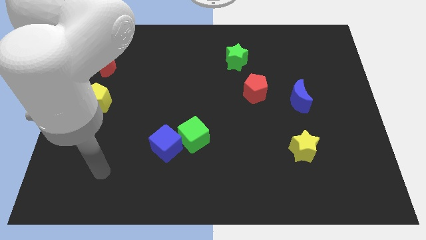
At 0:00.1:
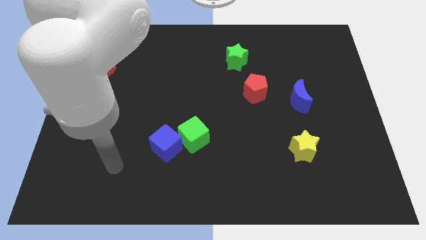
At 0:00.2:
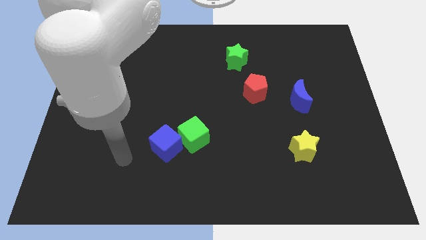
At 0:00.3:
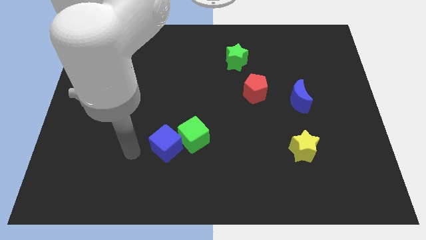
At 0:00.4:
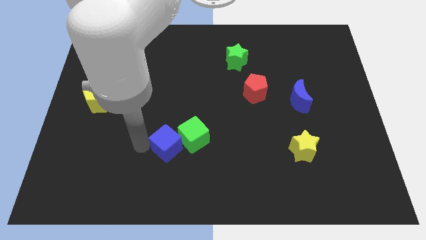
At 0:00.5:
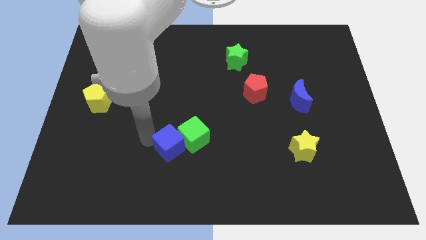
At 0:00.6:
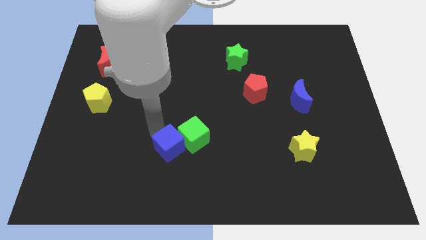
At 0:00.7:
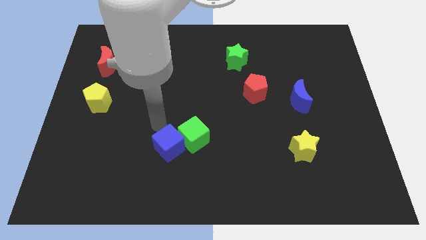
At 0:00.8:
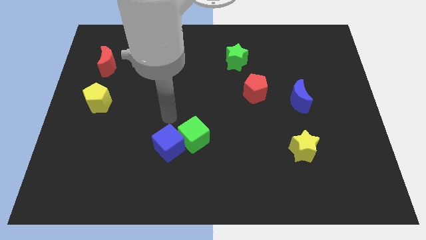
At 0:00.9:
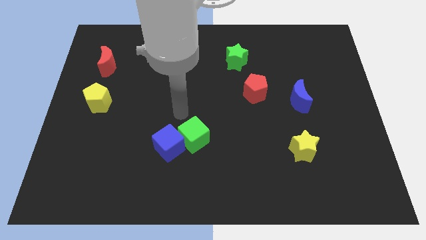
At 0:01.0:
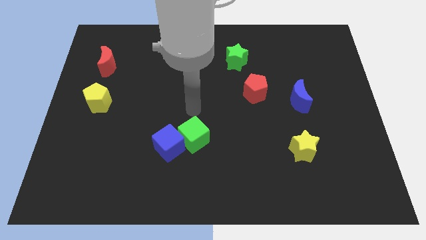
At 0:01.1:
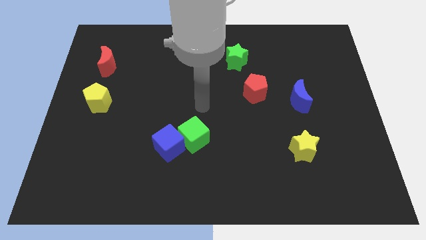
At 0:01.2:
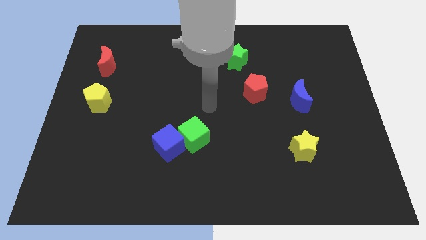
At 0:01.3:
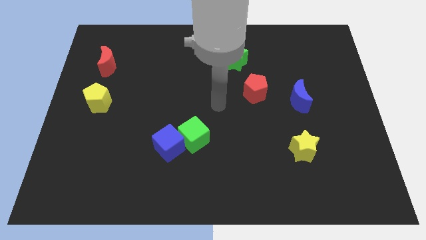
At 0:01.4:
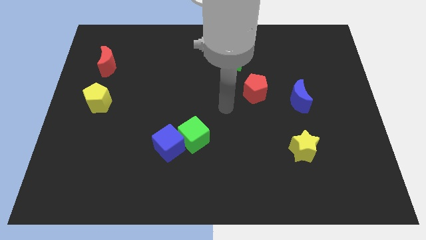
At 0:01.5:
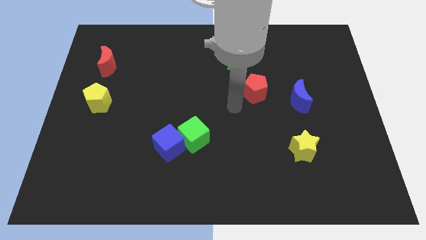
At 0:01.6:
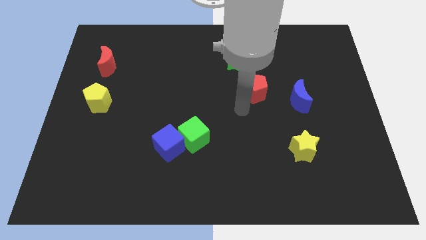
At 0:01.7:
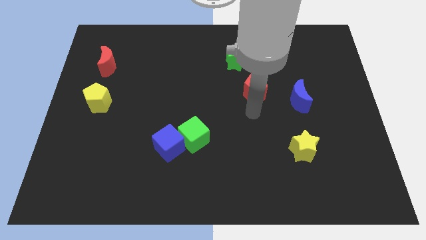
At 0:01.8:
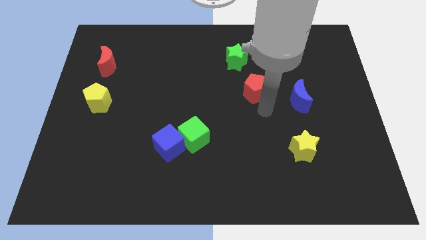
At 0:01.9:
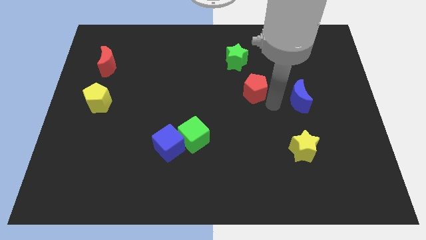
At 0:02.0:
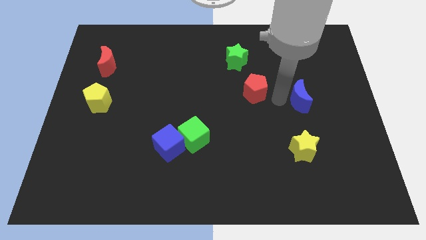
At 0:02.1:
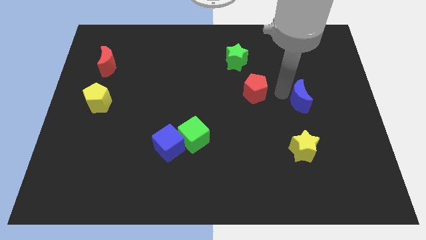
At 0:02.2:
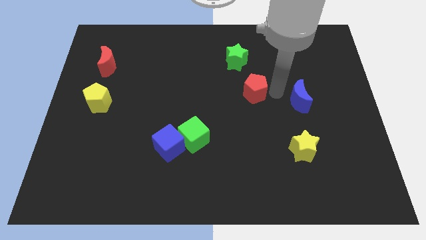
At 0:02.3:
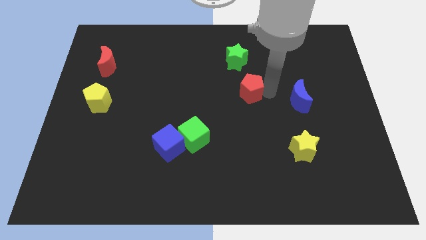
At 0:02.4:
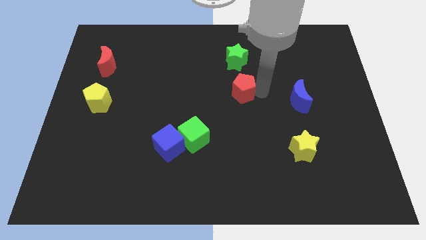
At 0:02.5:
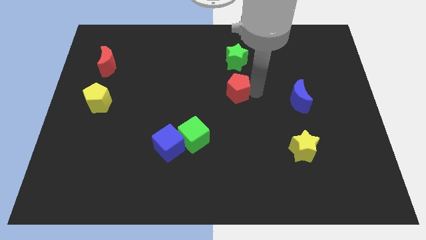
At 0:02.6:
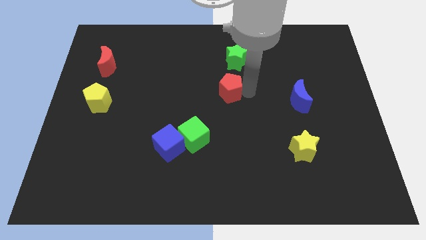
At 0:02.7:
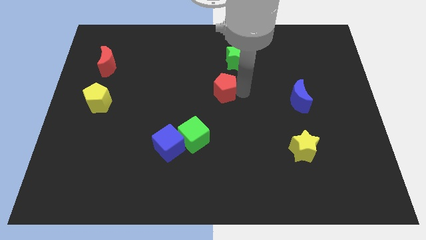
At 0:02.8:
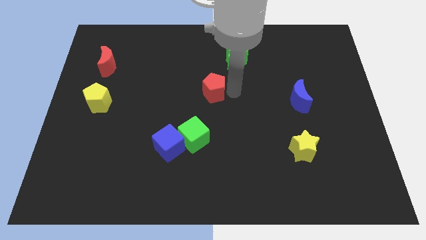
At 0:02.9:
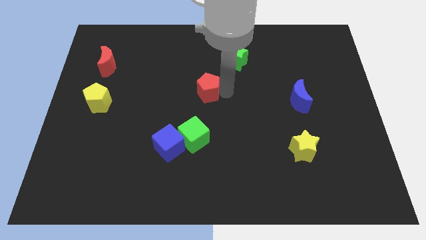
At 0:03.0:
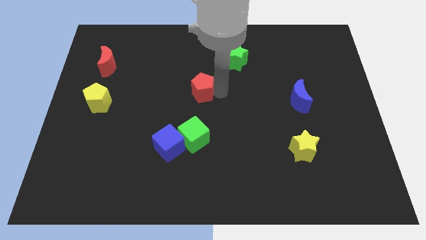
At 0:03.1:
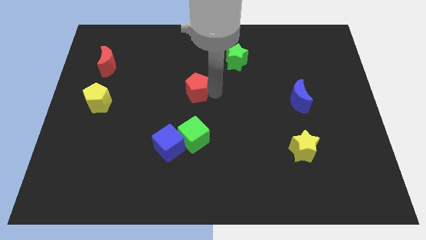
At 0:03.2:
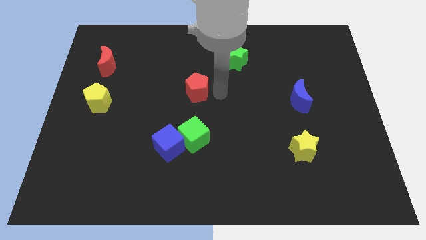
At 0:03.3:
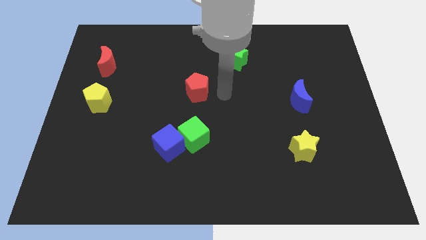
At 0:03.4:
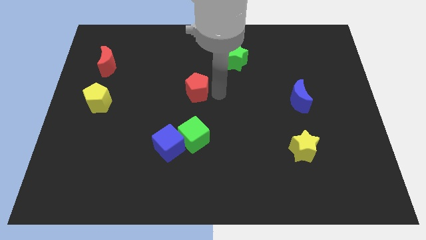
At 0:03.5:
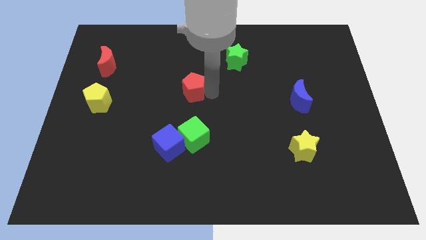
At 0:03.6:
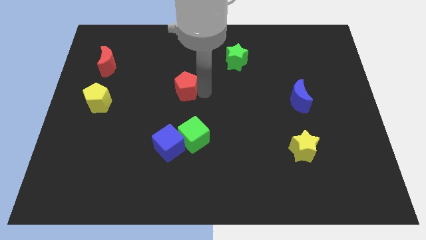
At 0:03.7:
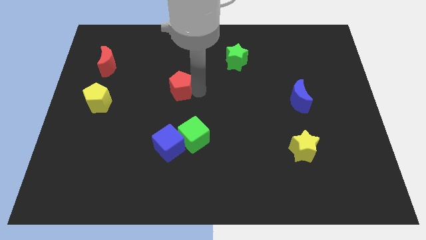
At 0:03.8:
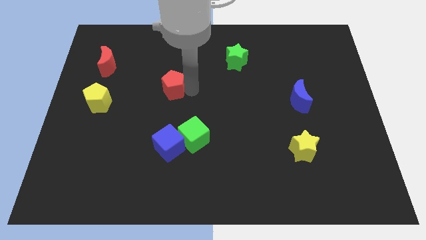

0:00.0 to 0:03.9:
move the red pentagon left

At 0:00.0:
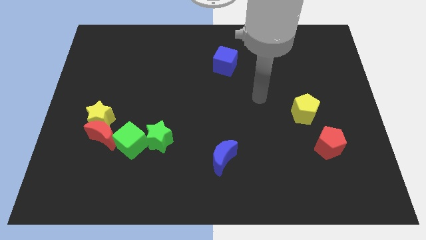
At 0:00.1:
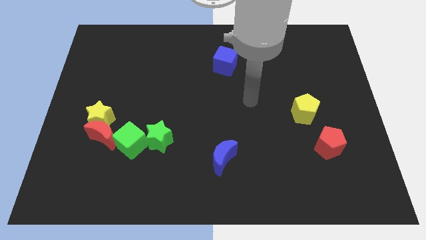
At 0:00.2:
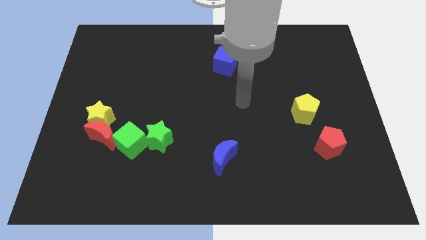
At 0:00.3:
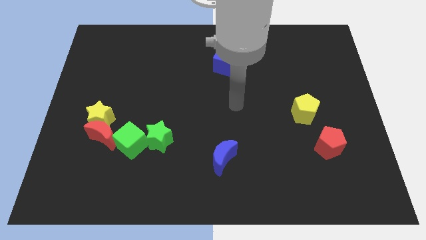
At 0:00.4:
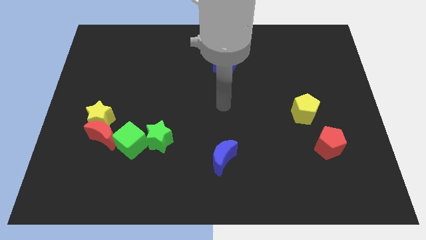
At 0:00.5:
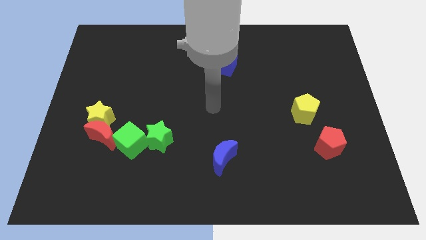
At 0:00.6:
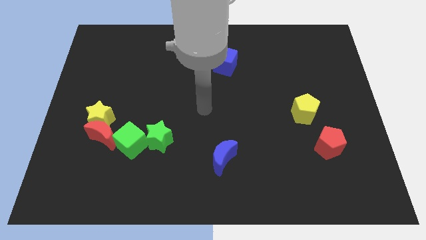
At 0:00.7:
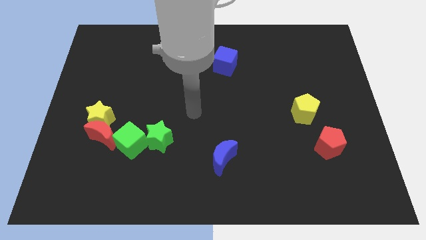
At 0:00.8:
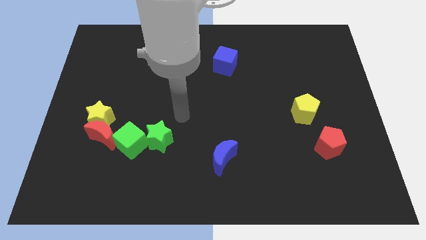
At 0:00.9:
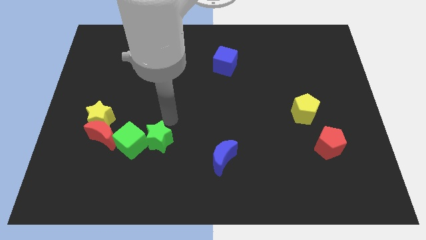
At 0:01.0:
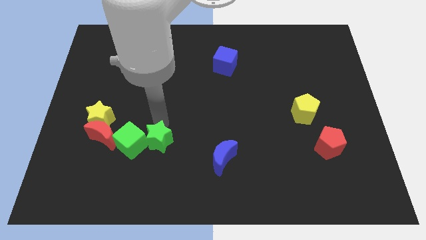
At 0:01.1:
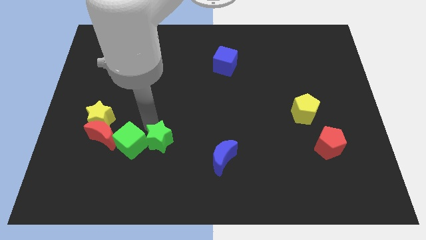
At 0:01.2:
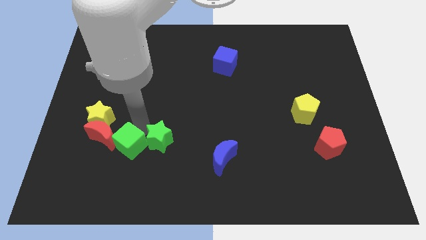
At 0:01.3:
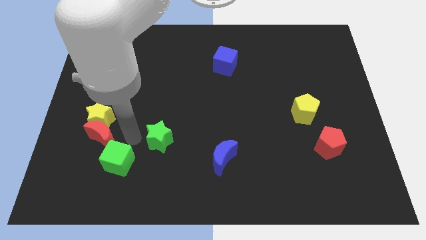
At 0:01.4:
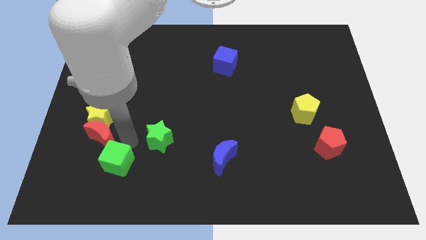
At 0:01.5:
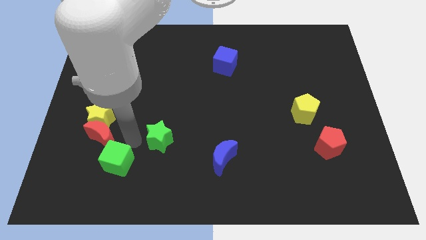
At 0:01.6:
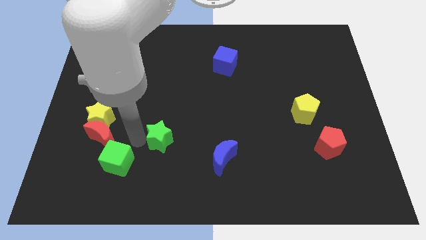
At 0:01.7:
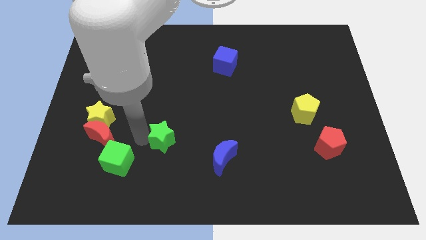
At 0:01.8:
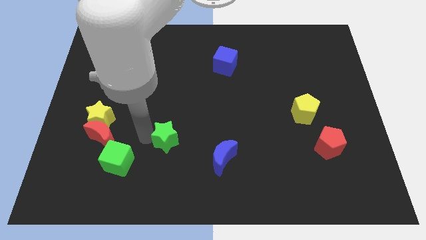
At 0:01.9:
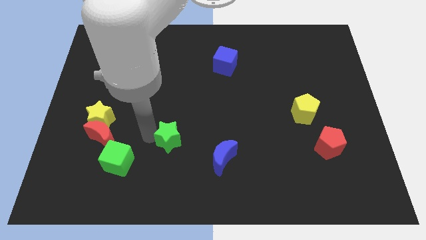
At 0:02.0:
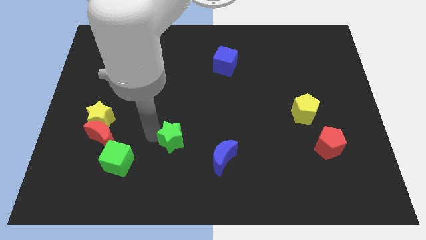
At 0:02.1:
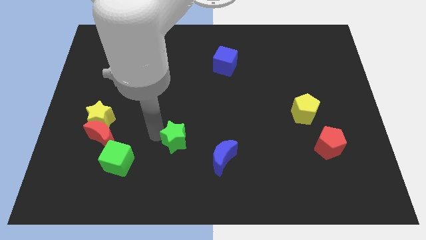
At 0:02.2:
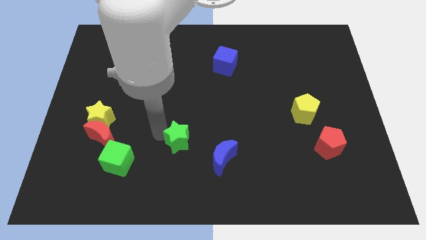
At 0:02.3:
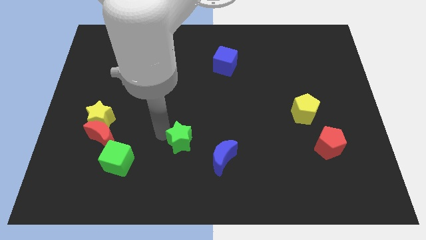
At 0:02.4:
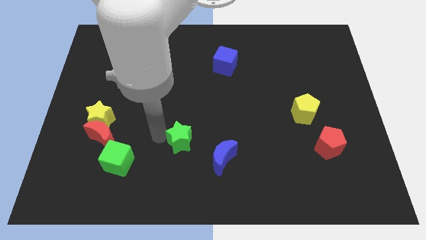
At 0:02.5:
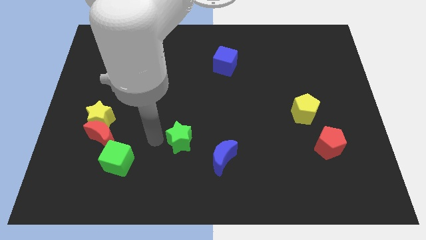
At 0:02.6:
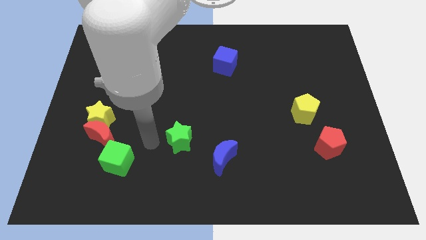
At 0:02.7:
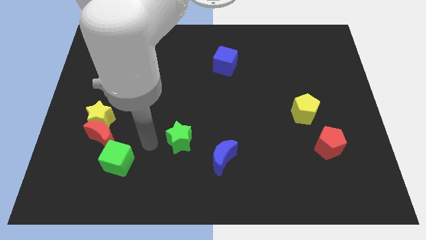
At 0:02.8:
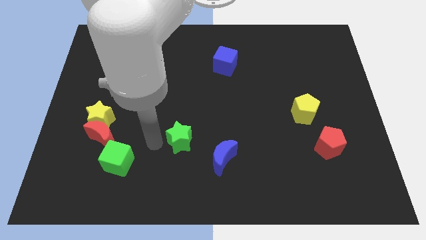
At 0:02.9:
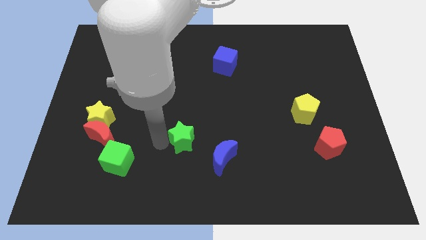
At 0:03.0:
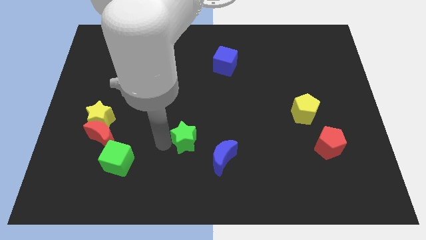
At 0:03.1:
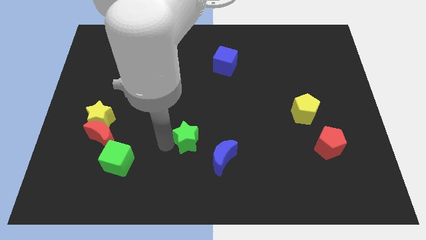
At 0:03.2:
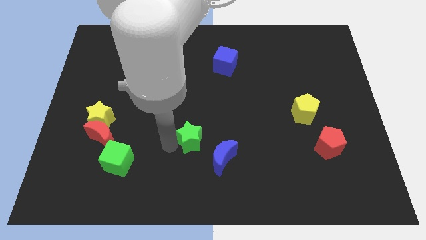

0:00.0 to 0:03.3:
push the green star to the right a bit

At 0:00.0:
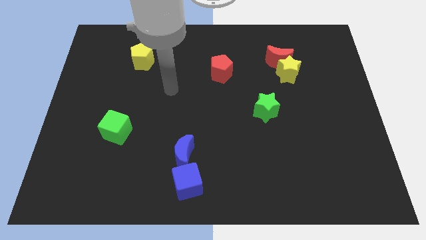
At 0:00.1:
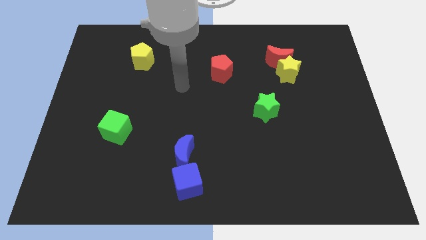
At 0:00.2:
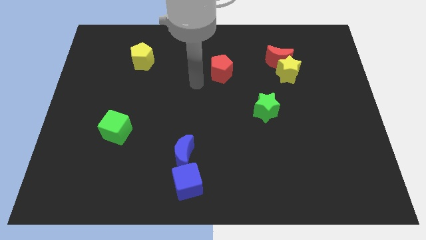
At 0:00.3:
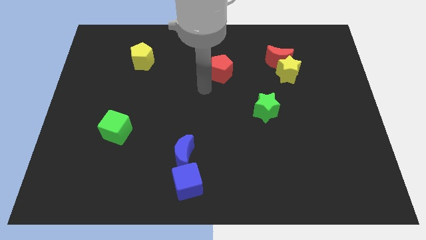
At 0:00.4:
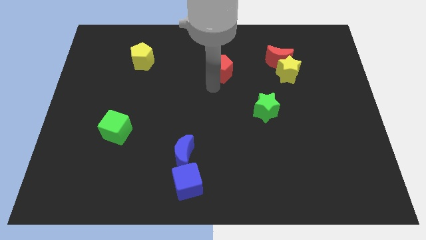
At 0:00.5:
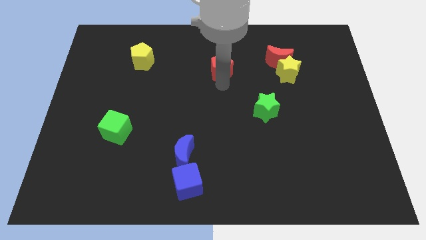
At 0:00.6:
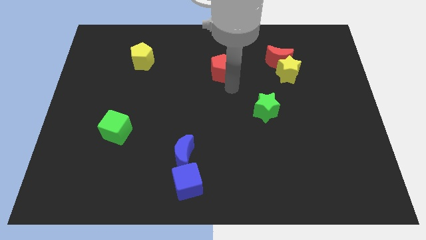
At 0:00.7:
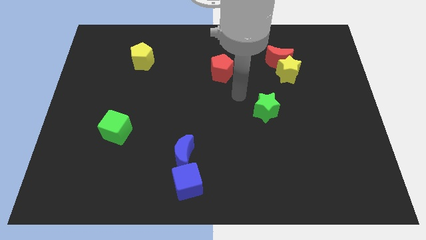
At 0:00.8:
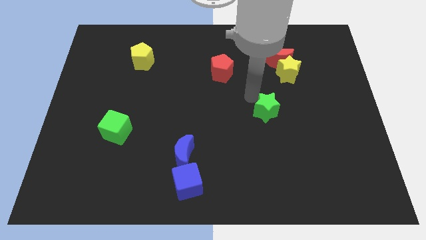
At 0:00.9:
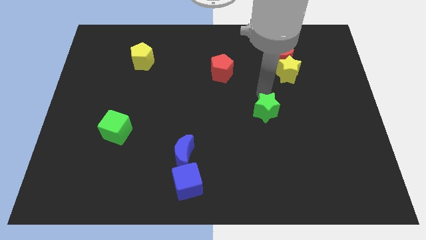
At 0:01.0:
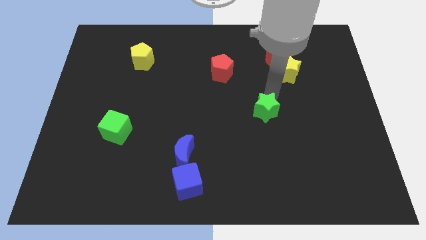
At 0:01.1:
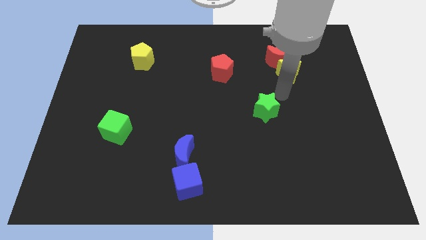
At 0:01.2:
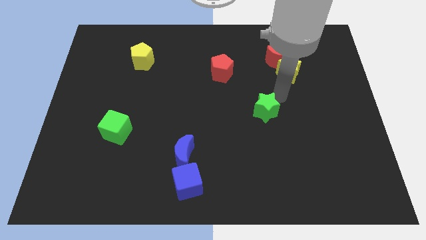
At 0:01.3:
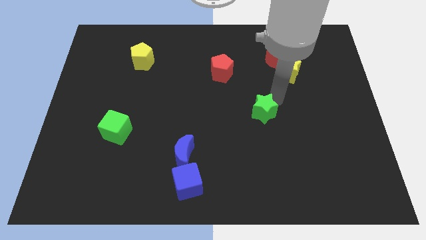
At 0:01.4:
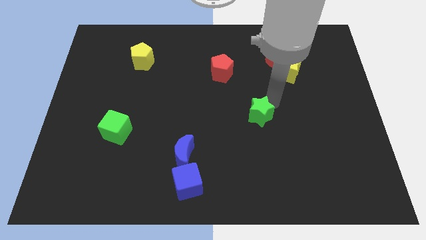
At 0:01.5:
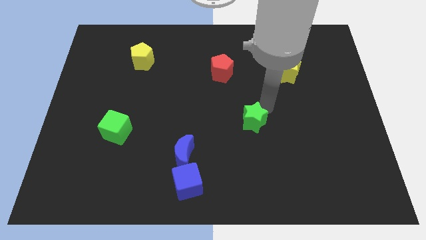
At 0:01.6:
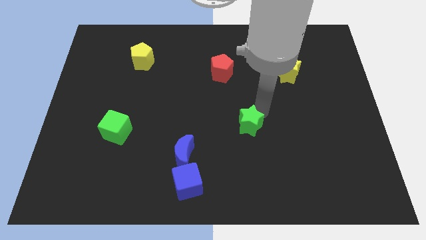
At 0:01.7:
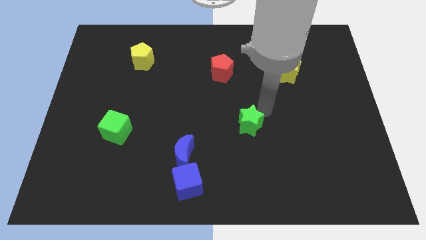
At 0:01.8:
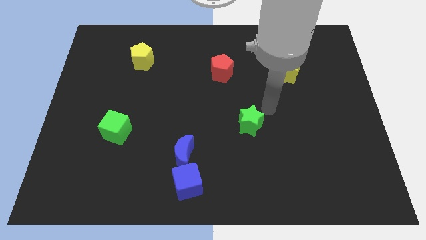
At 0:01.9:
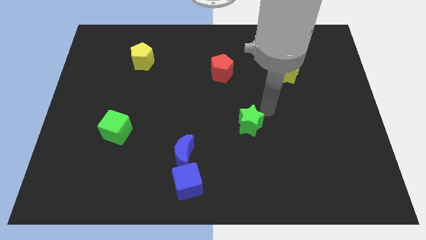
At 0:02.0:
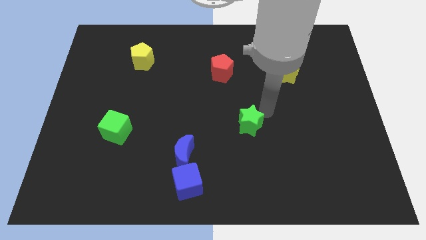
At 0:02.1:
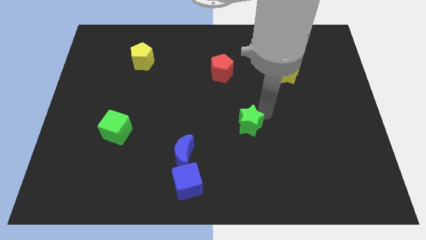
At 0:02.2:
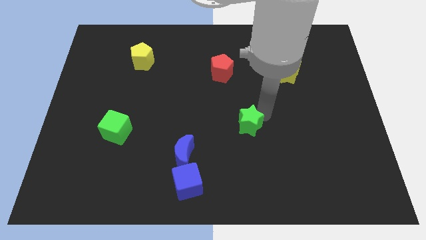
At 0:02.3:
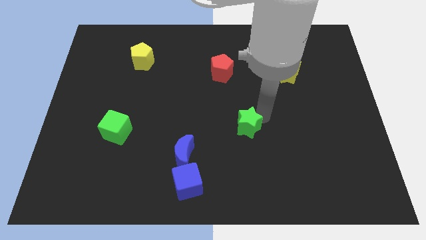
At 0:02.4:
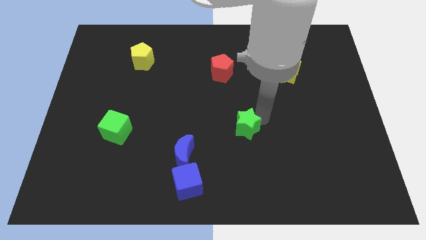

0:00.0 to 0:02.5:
slightly slide the green star down and to the left
